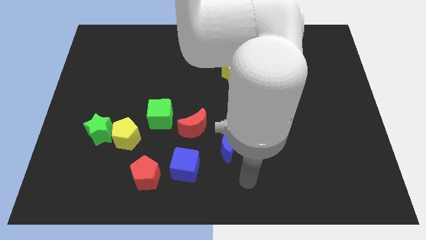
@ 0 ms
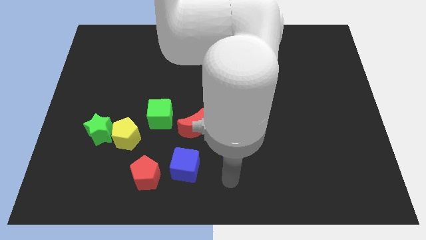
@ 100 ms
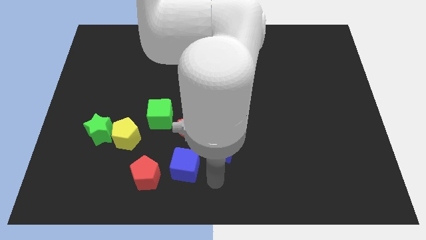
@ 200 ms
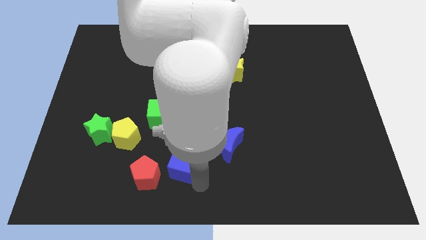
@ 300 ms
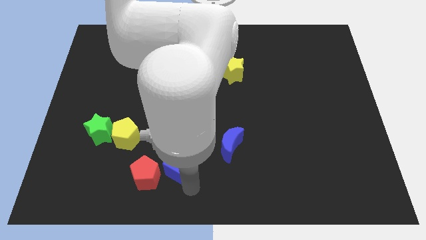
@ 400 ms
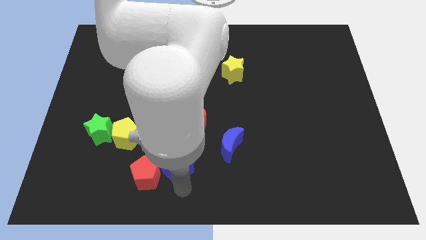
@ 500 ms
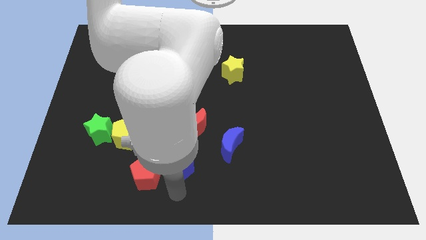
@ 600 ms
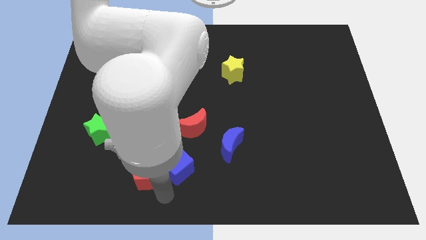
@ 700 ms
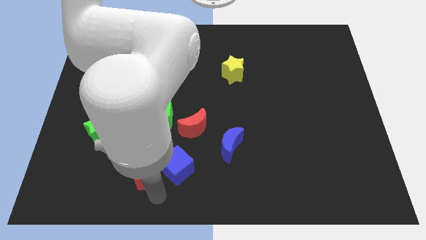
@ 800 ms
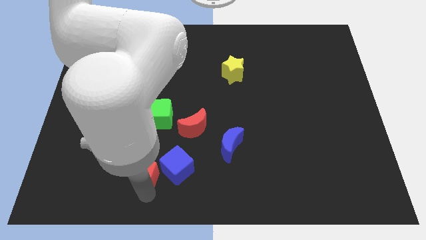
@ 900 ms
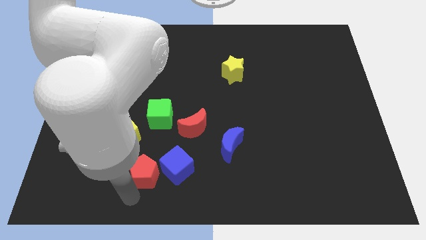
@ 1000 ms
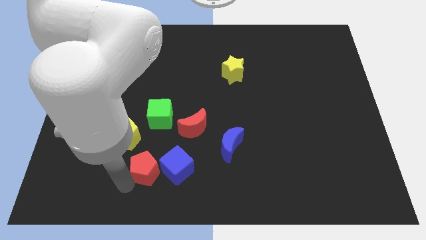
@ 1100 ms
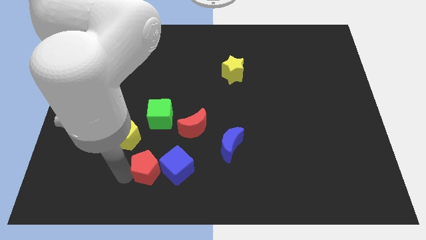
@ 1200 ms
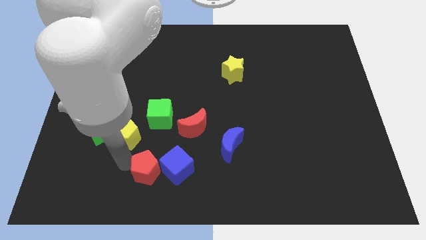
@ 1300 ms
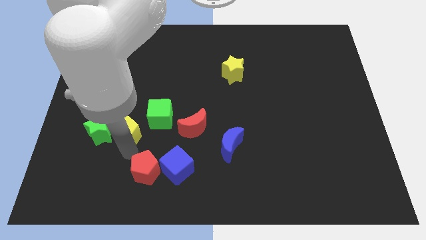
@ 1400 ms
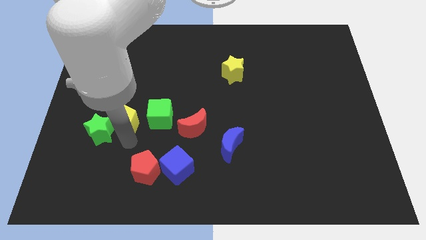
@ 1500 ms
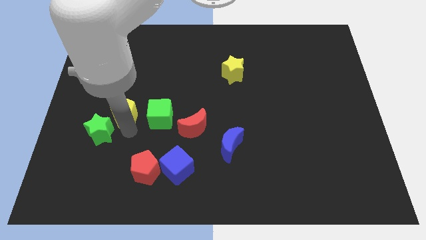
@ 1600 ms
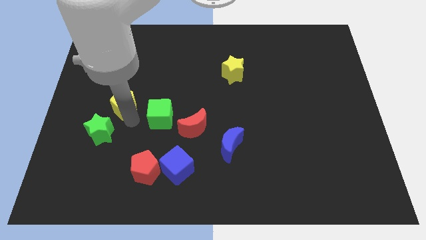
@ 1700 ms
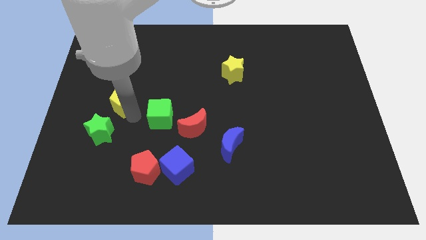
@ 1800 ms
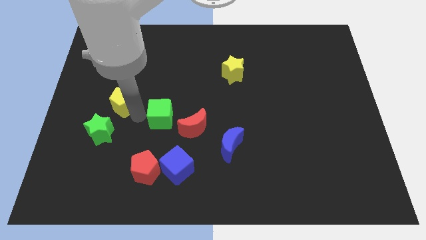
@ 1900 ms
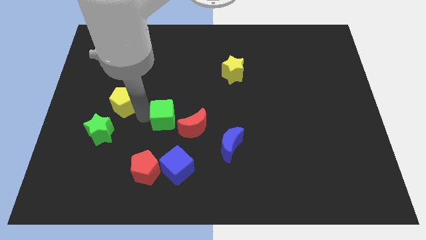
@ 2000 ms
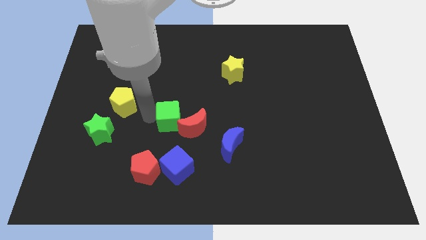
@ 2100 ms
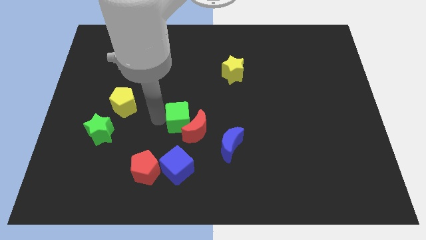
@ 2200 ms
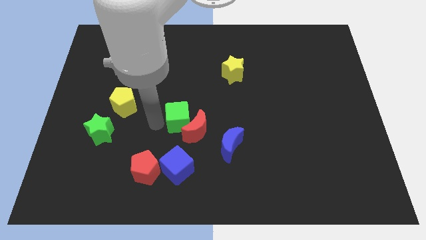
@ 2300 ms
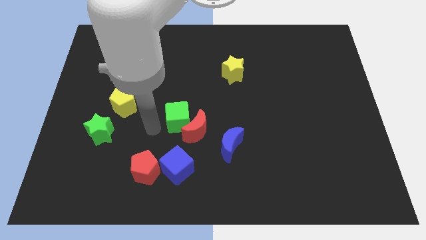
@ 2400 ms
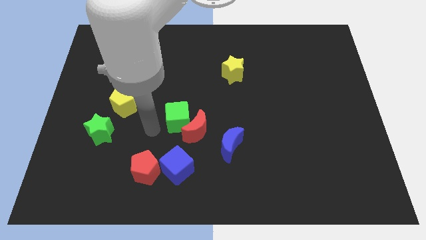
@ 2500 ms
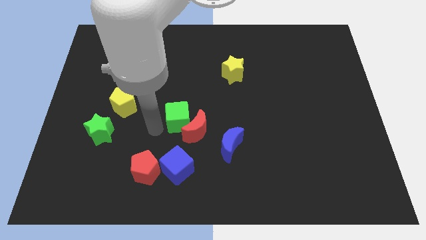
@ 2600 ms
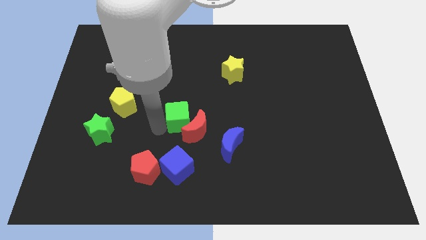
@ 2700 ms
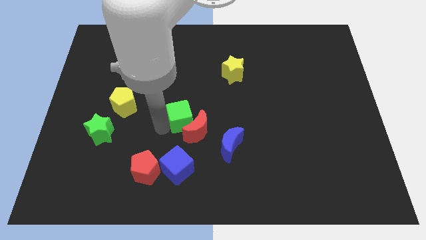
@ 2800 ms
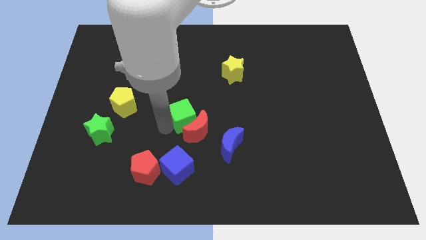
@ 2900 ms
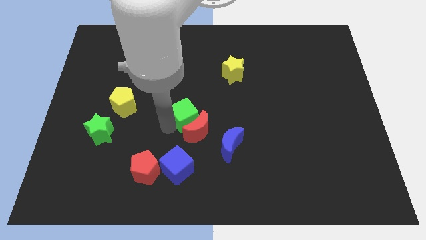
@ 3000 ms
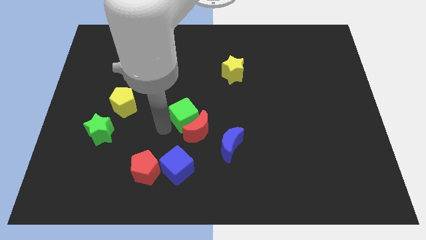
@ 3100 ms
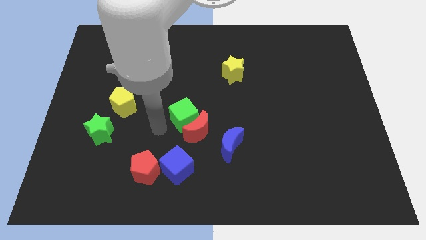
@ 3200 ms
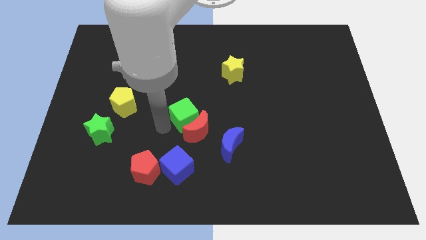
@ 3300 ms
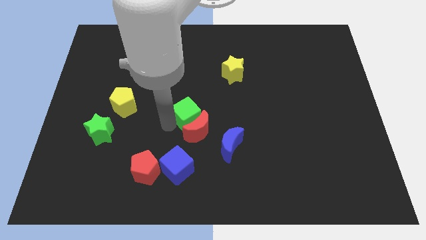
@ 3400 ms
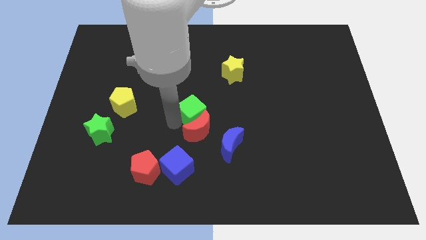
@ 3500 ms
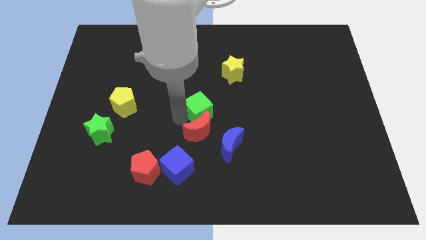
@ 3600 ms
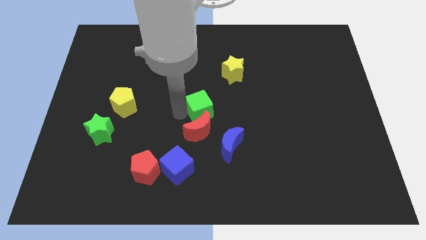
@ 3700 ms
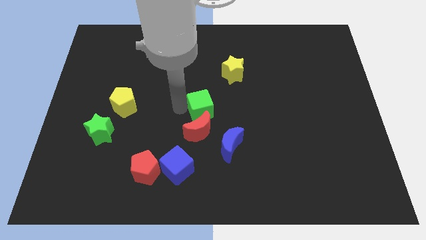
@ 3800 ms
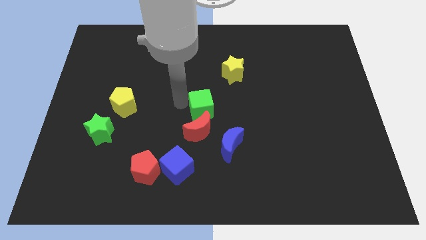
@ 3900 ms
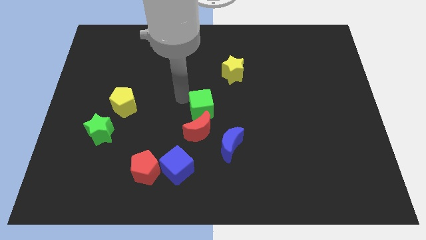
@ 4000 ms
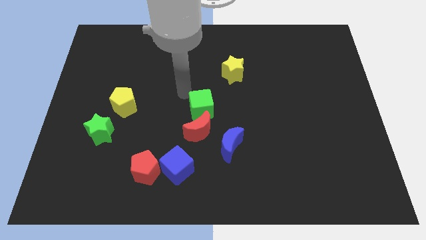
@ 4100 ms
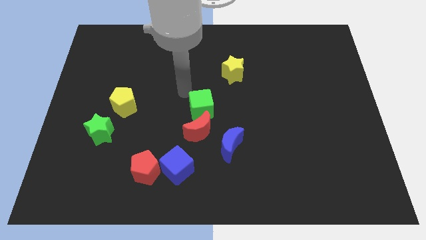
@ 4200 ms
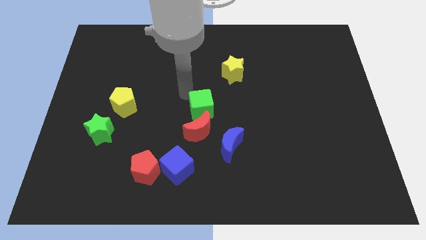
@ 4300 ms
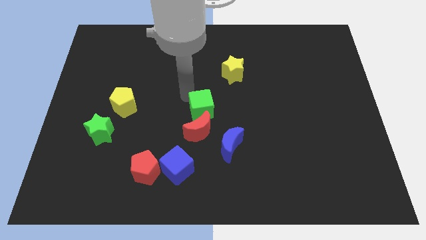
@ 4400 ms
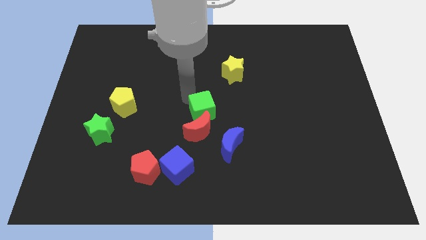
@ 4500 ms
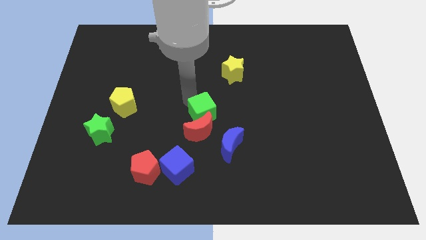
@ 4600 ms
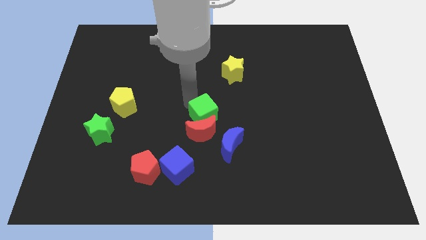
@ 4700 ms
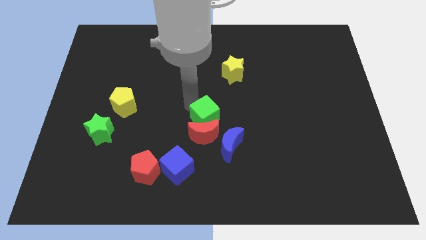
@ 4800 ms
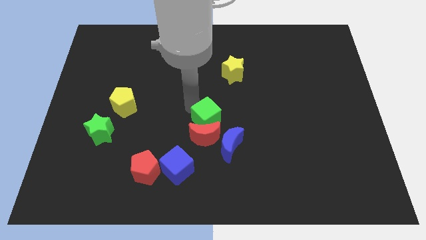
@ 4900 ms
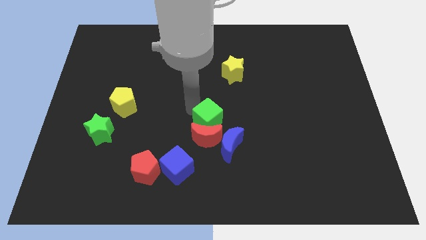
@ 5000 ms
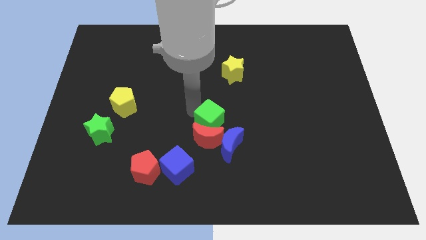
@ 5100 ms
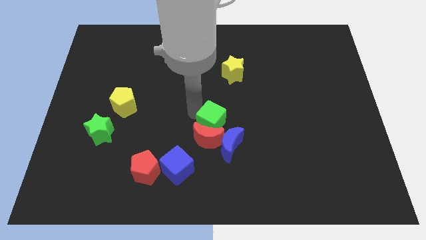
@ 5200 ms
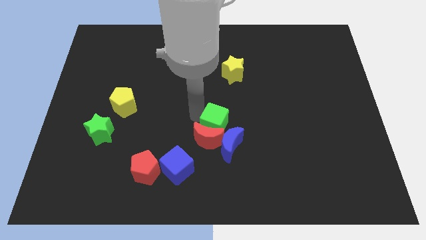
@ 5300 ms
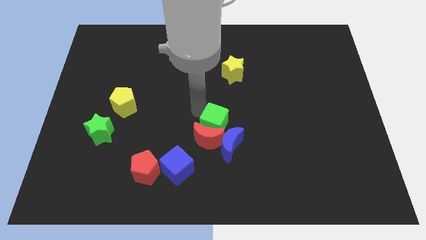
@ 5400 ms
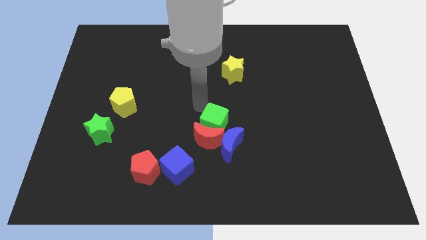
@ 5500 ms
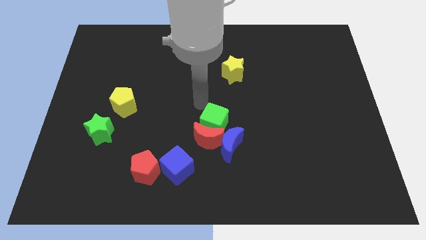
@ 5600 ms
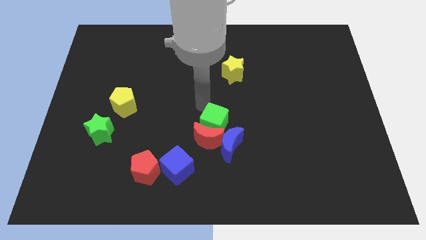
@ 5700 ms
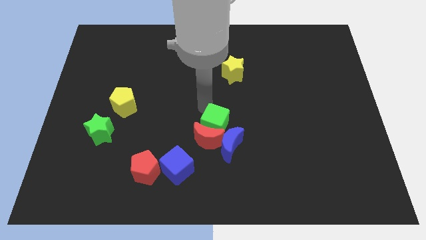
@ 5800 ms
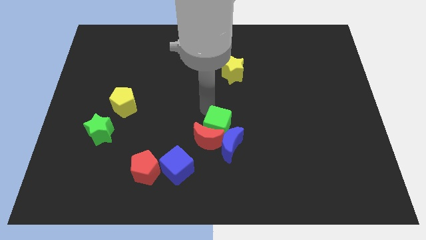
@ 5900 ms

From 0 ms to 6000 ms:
move the green cube towards the blue moon

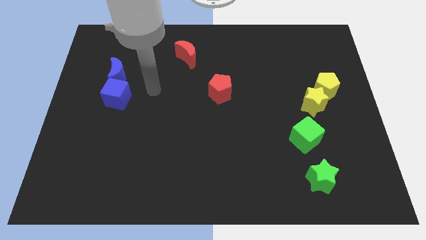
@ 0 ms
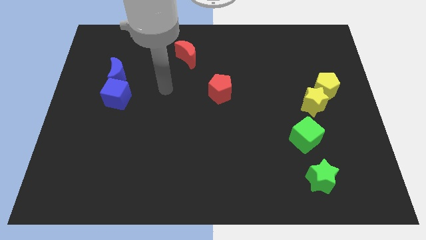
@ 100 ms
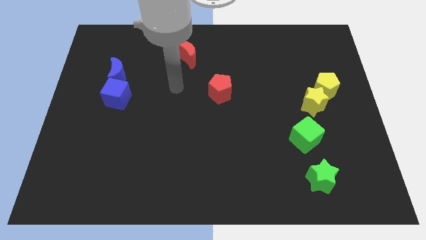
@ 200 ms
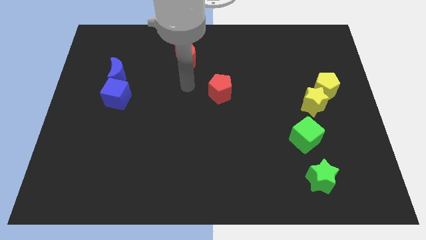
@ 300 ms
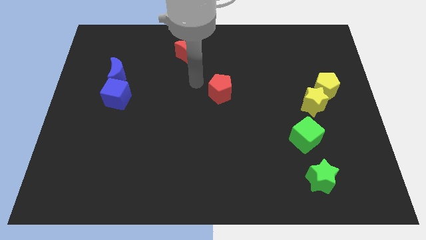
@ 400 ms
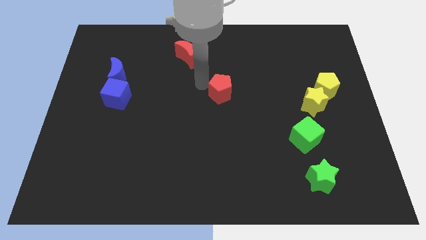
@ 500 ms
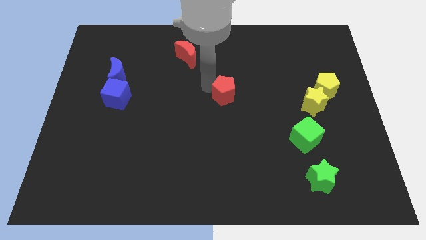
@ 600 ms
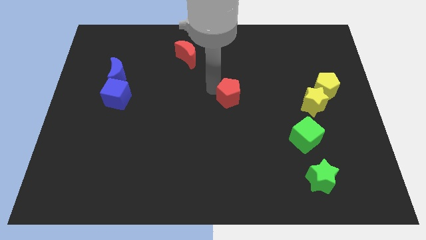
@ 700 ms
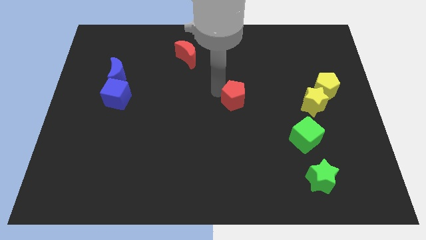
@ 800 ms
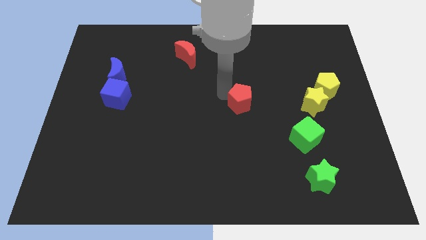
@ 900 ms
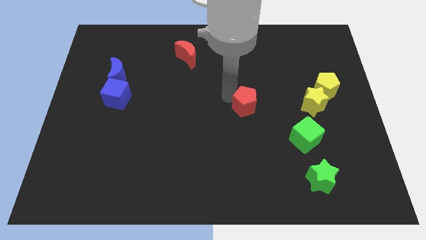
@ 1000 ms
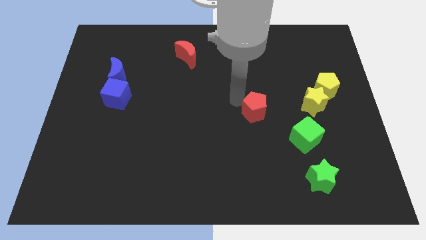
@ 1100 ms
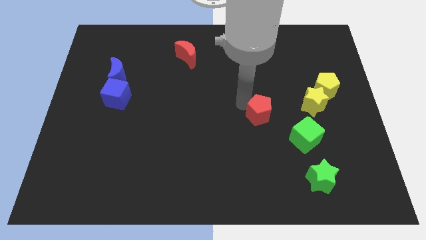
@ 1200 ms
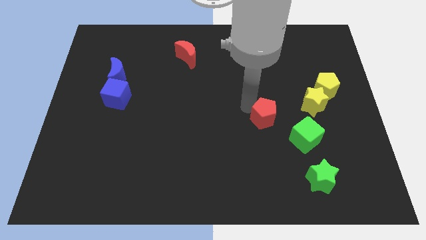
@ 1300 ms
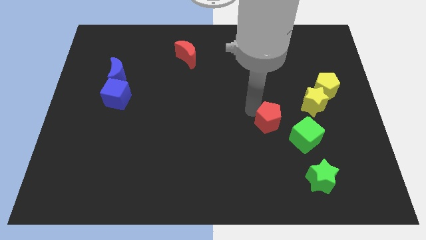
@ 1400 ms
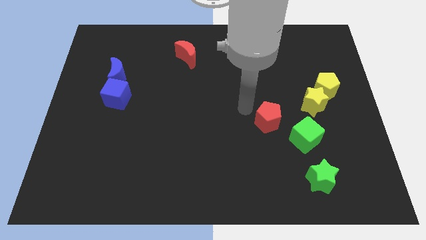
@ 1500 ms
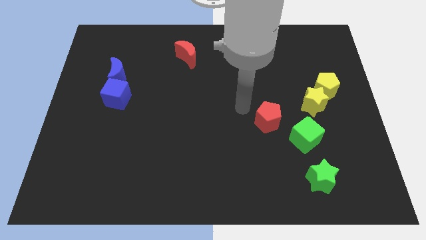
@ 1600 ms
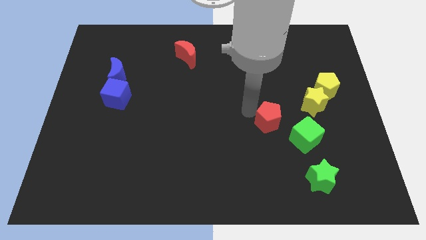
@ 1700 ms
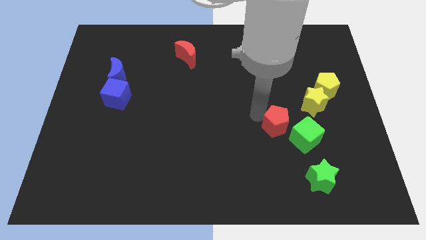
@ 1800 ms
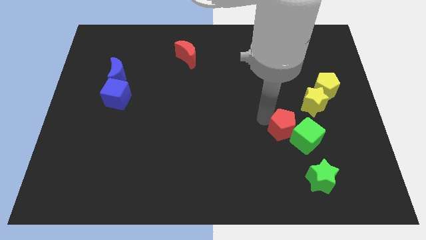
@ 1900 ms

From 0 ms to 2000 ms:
put the red pentagon towards the green cube
